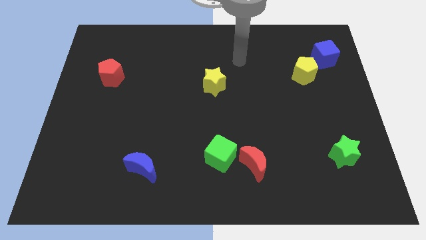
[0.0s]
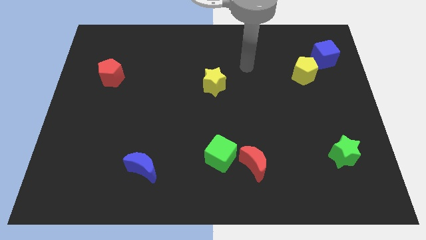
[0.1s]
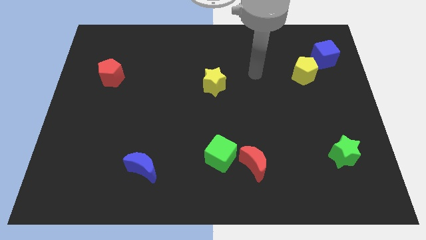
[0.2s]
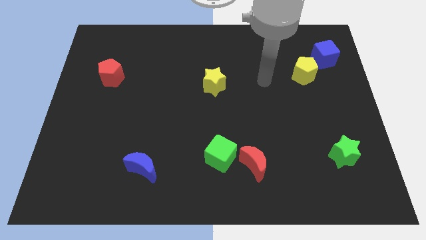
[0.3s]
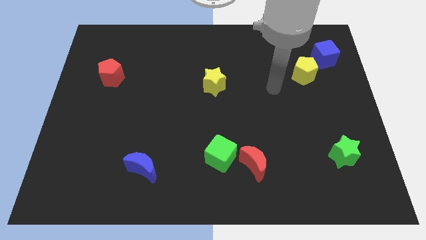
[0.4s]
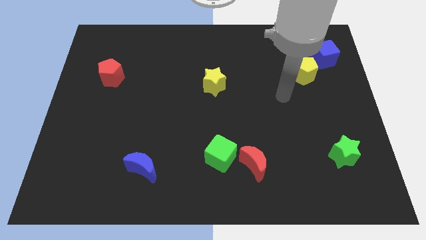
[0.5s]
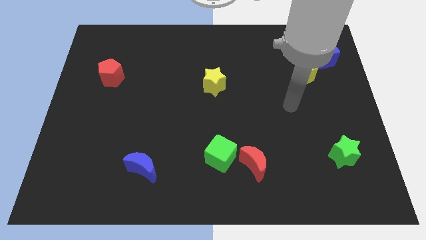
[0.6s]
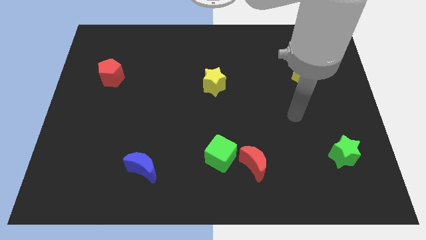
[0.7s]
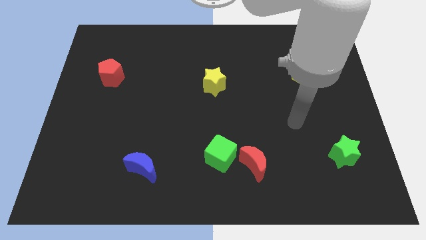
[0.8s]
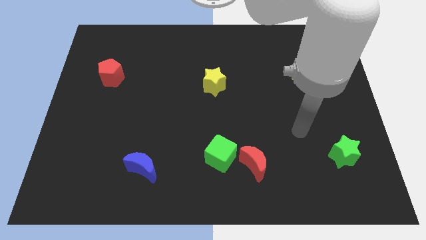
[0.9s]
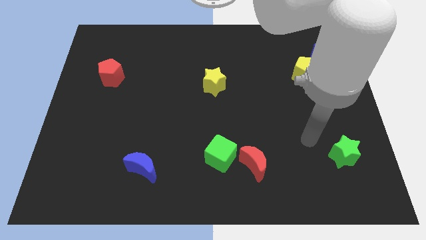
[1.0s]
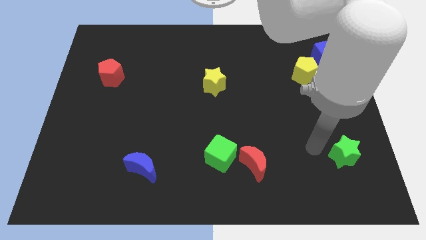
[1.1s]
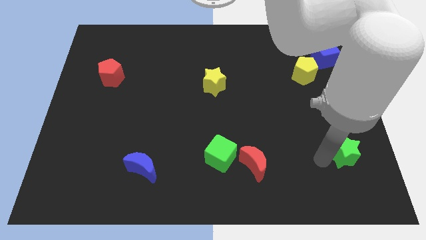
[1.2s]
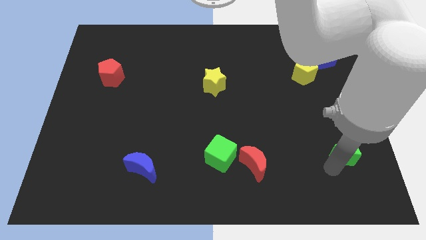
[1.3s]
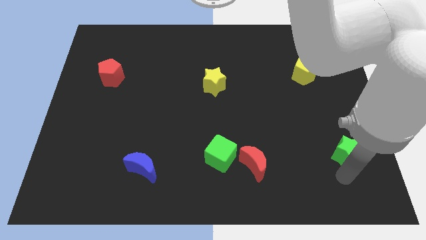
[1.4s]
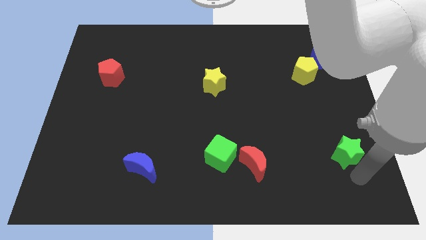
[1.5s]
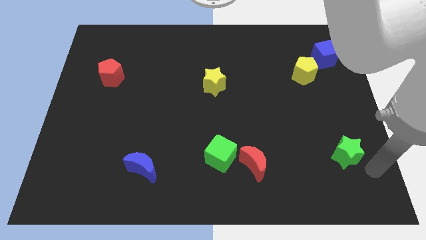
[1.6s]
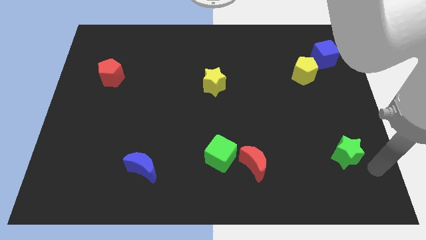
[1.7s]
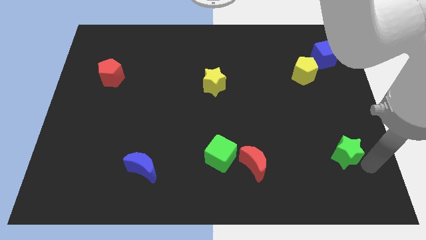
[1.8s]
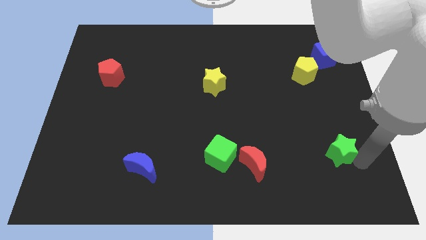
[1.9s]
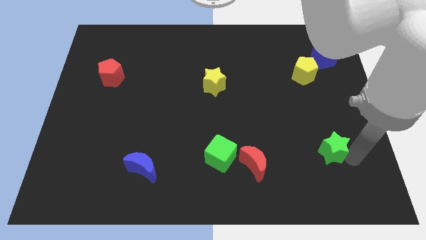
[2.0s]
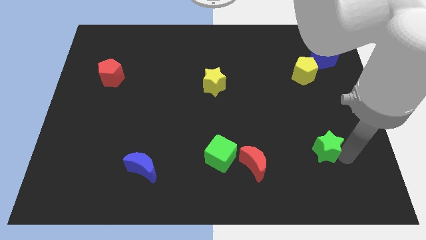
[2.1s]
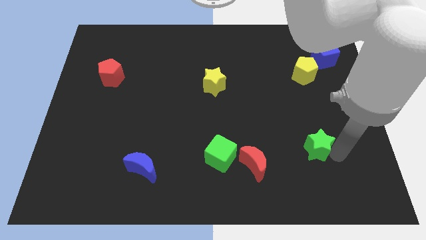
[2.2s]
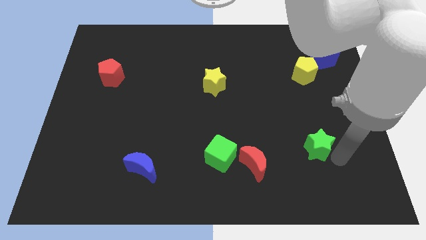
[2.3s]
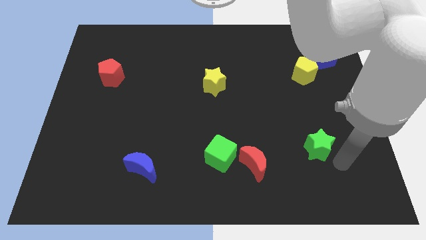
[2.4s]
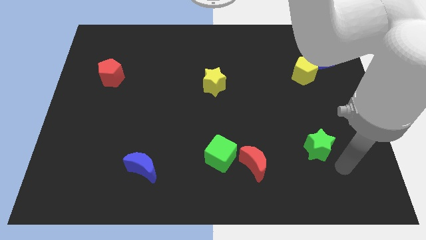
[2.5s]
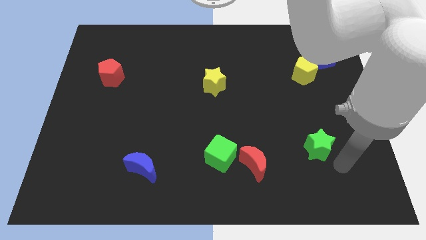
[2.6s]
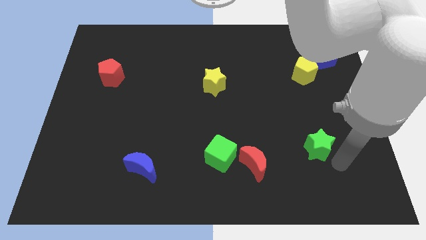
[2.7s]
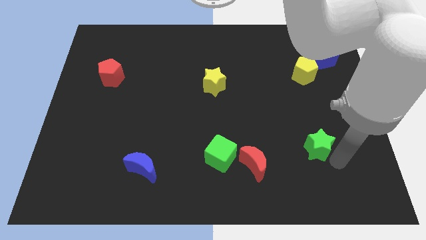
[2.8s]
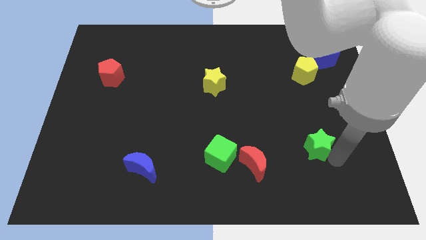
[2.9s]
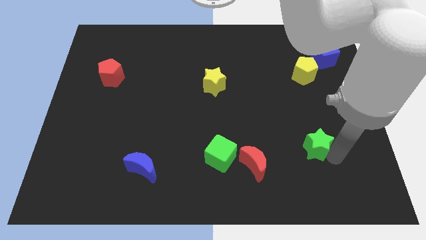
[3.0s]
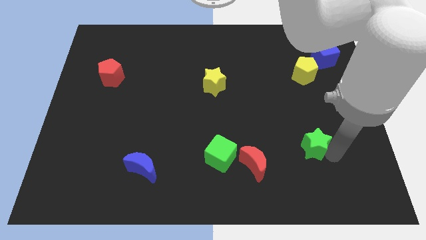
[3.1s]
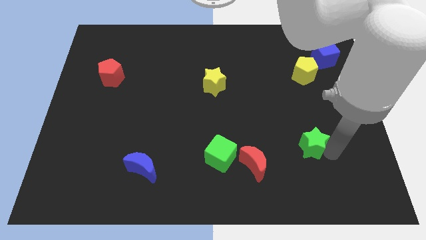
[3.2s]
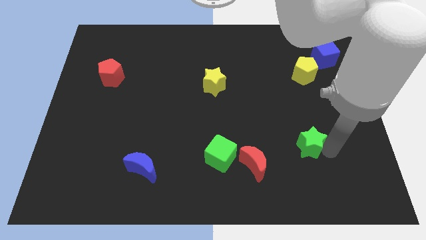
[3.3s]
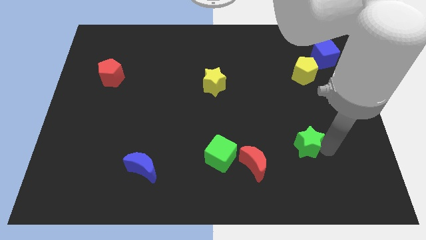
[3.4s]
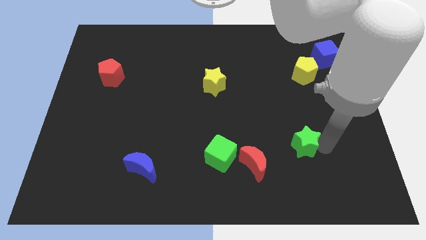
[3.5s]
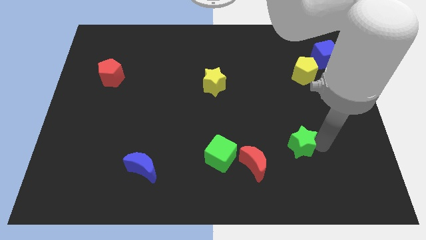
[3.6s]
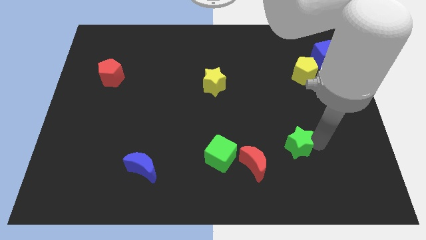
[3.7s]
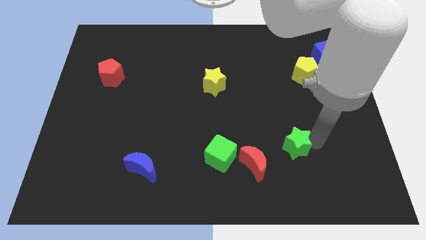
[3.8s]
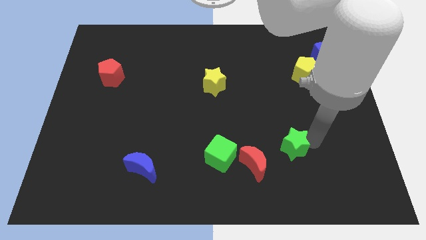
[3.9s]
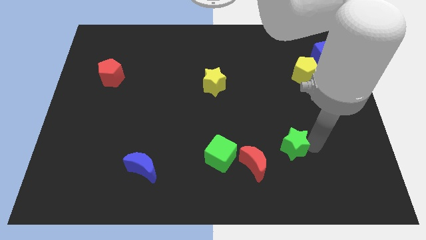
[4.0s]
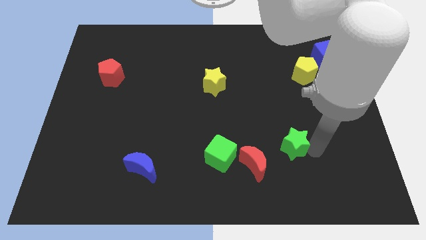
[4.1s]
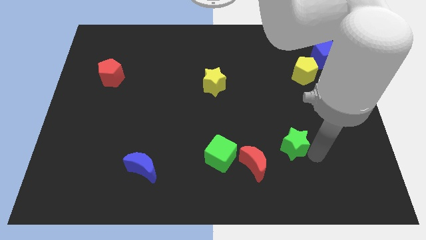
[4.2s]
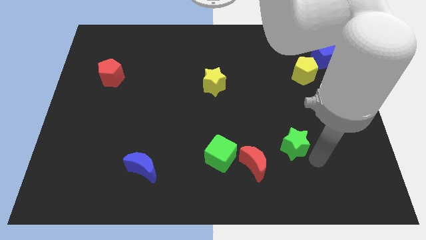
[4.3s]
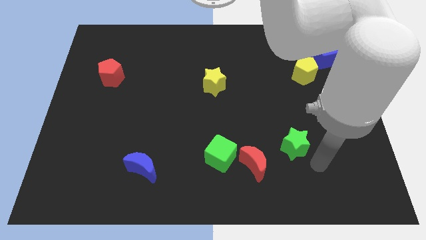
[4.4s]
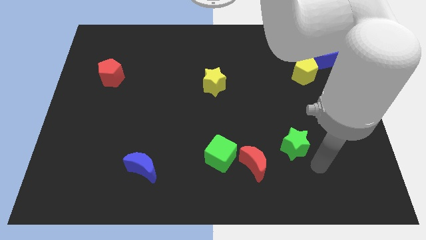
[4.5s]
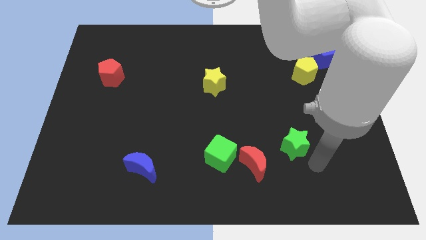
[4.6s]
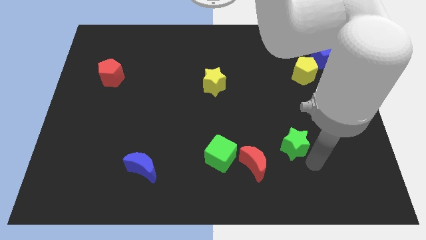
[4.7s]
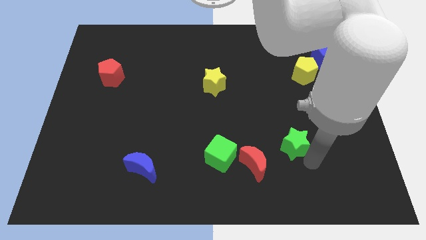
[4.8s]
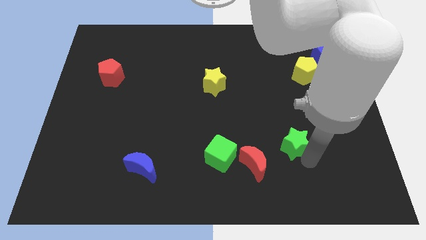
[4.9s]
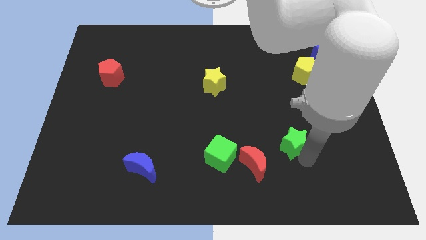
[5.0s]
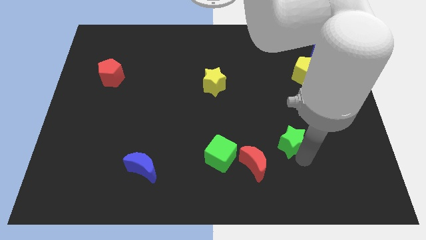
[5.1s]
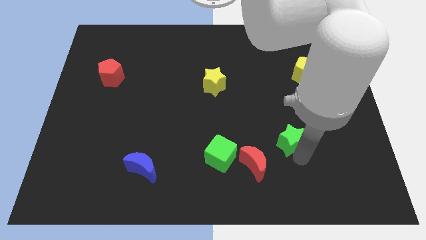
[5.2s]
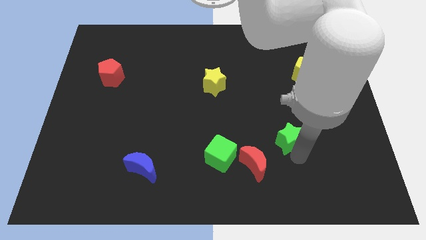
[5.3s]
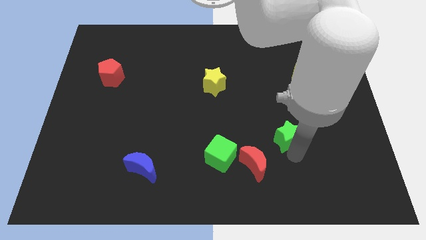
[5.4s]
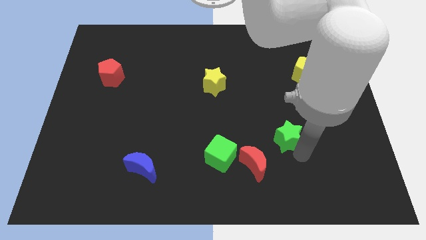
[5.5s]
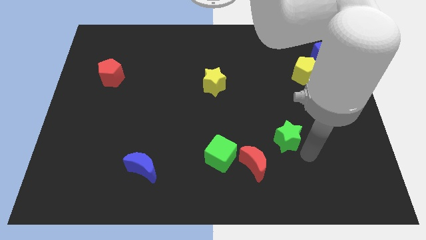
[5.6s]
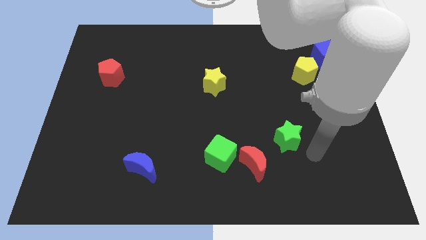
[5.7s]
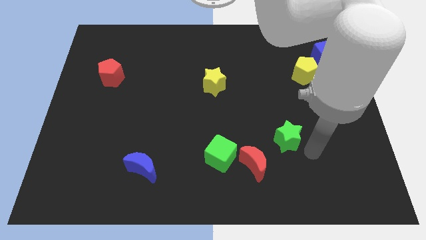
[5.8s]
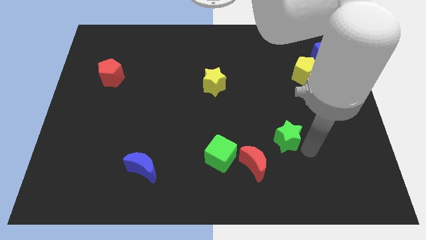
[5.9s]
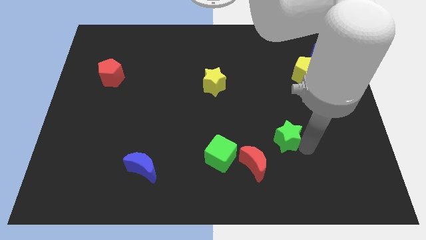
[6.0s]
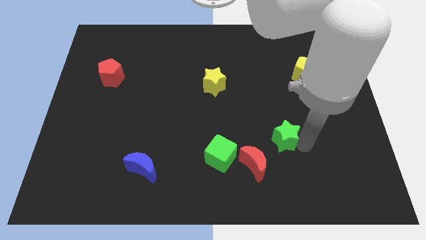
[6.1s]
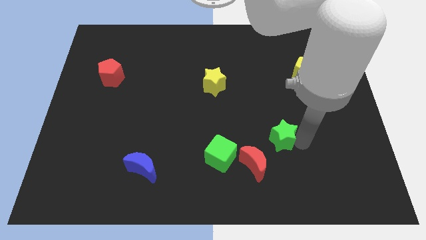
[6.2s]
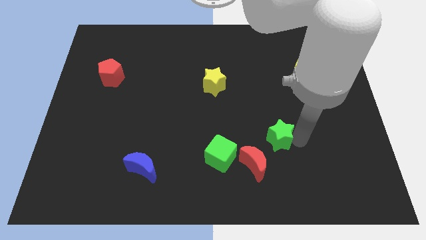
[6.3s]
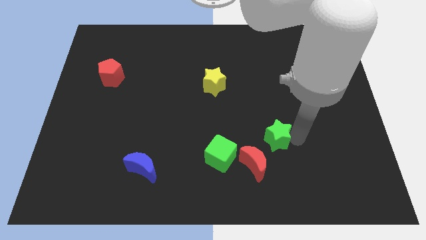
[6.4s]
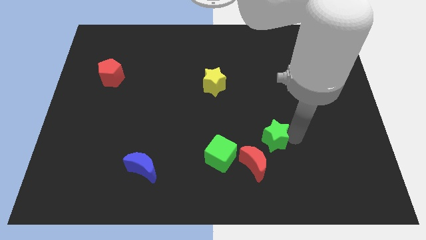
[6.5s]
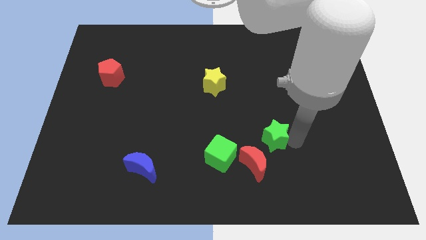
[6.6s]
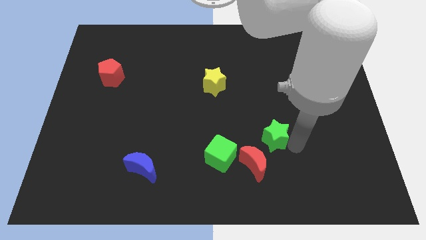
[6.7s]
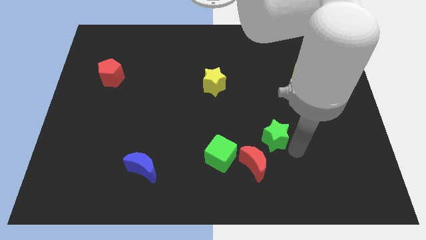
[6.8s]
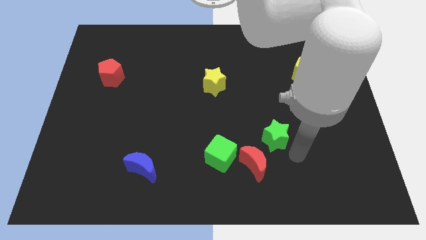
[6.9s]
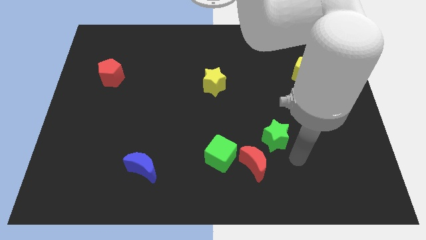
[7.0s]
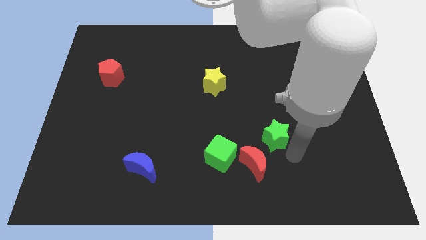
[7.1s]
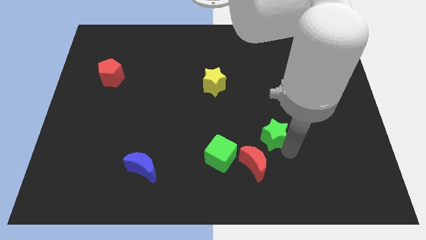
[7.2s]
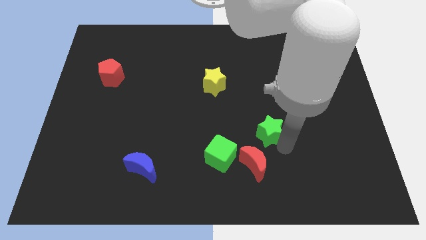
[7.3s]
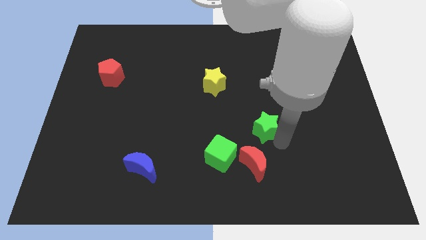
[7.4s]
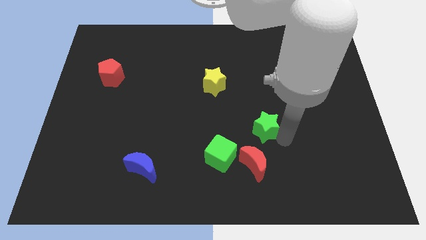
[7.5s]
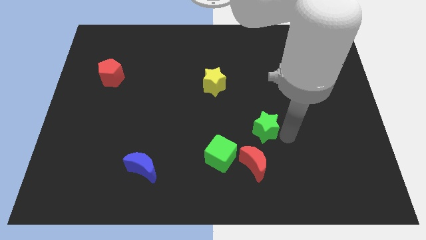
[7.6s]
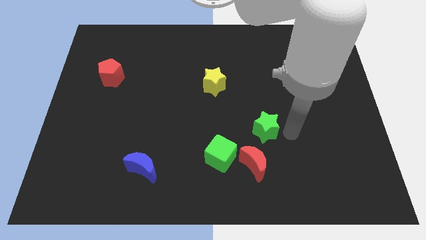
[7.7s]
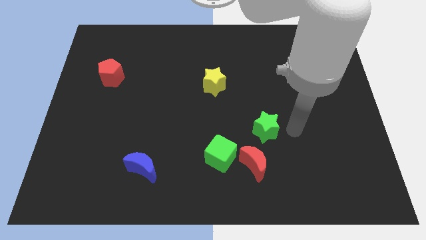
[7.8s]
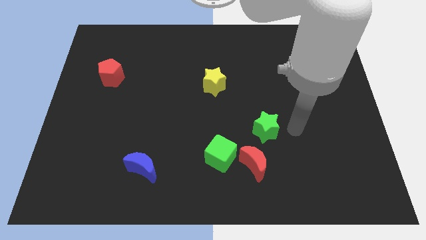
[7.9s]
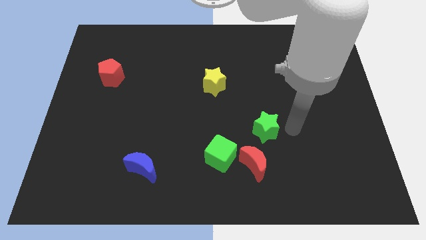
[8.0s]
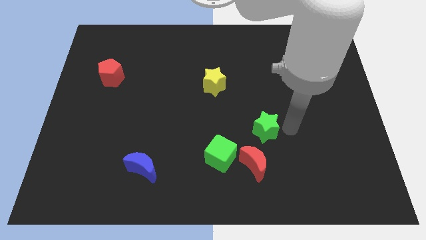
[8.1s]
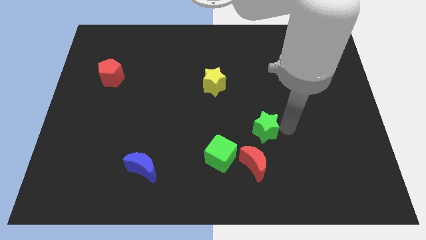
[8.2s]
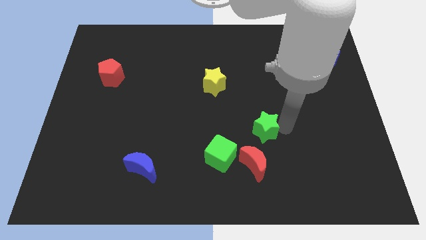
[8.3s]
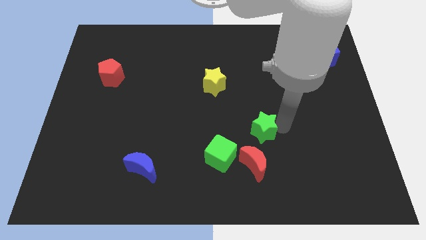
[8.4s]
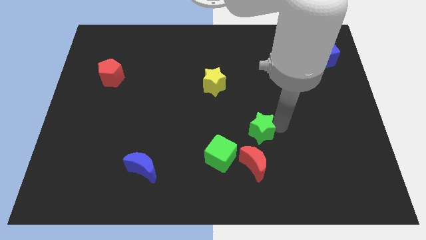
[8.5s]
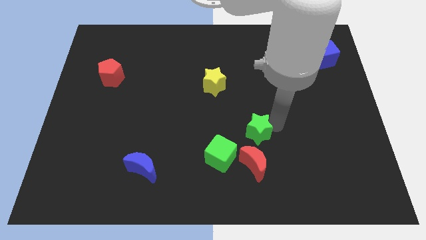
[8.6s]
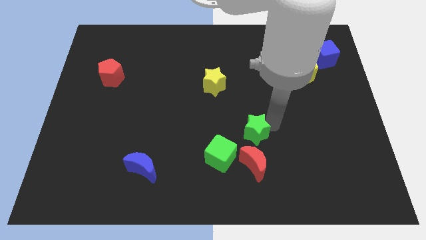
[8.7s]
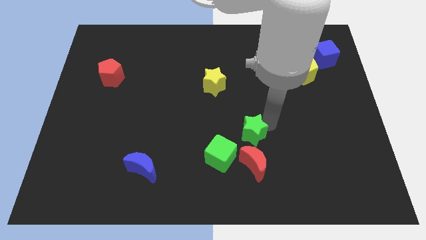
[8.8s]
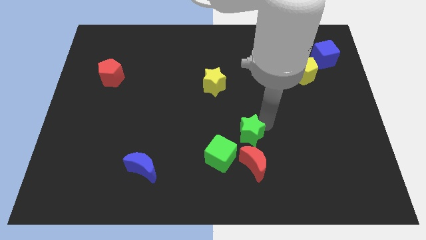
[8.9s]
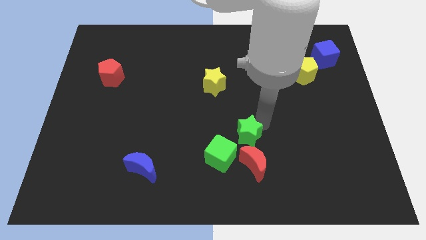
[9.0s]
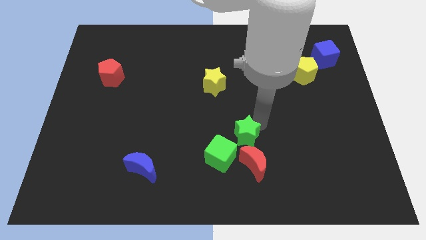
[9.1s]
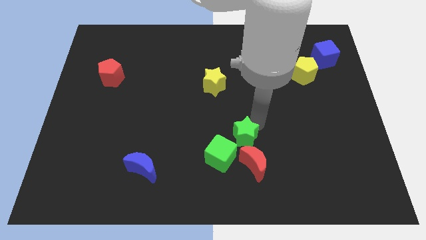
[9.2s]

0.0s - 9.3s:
move the green star to the left
